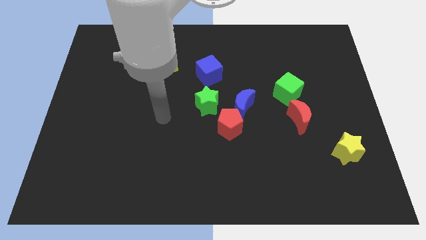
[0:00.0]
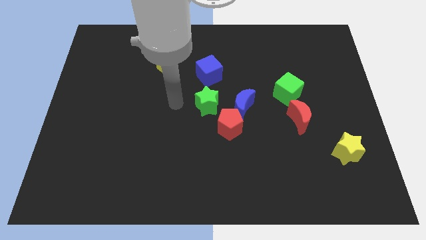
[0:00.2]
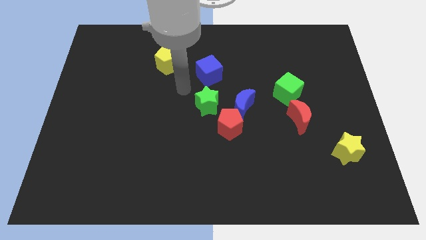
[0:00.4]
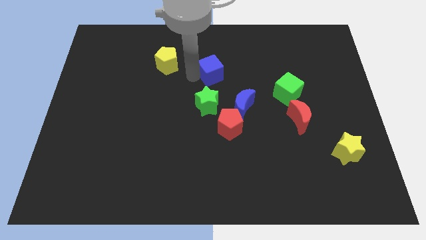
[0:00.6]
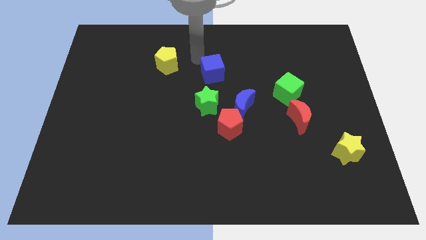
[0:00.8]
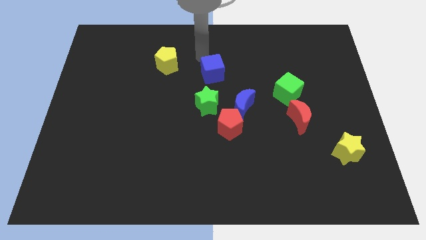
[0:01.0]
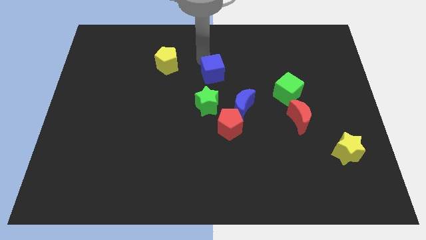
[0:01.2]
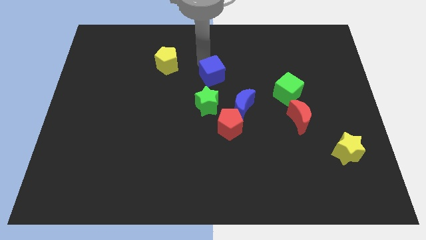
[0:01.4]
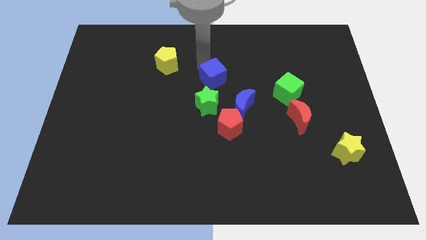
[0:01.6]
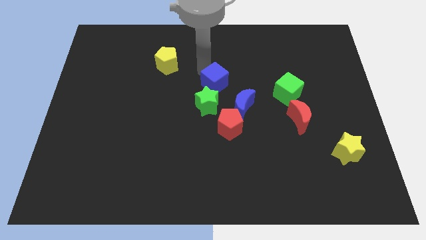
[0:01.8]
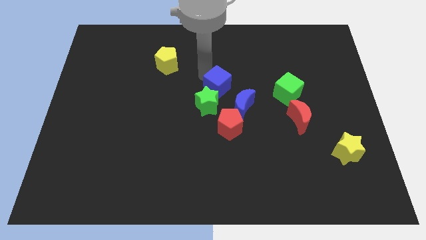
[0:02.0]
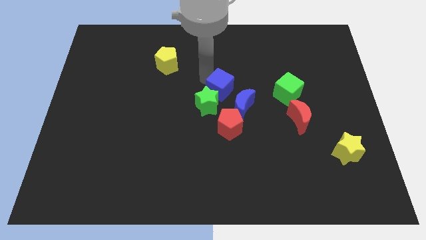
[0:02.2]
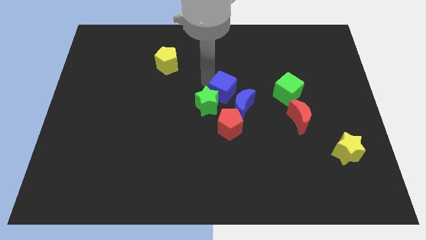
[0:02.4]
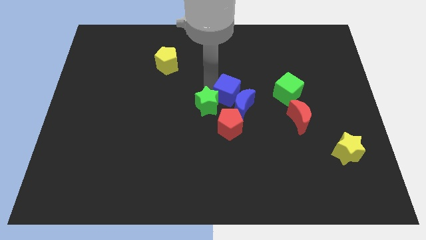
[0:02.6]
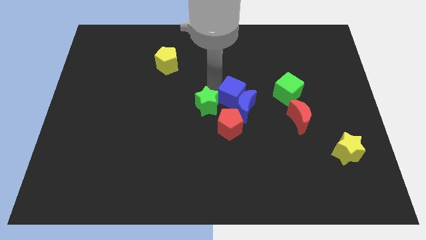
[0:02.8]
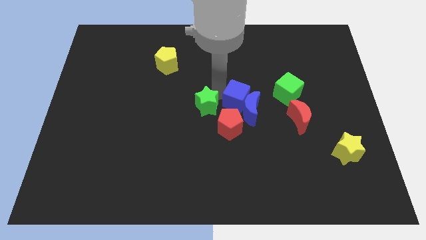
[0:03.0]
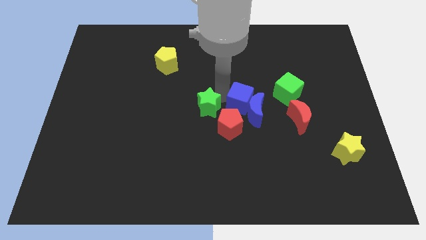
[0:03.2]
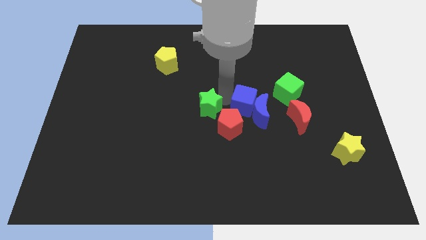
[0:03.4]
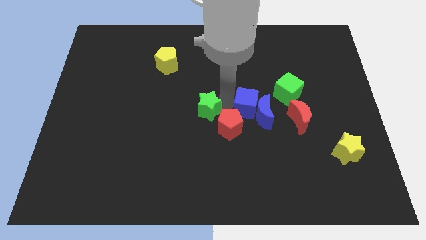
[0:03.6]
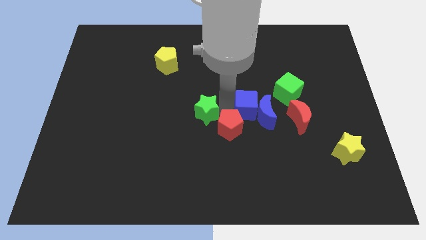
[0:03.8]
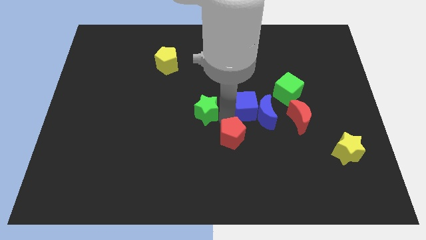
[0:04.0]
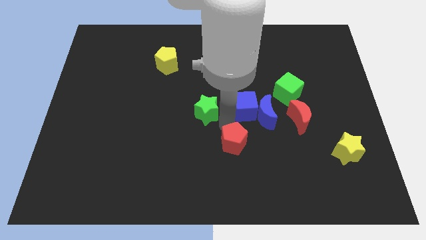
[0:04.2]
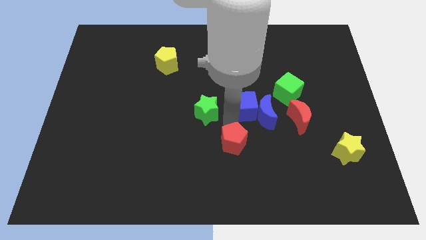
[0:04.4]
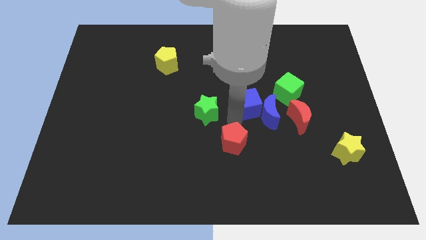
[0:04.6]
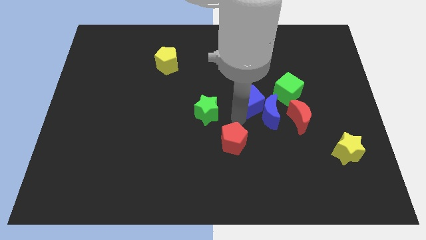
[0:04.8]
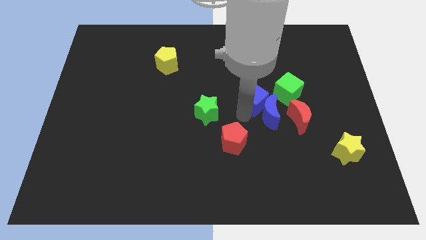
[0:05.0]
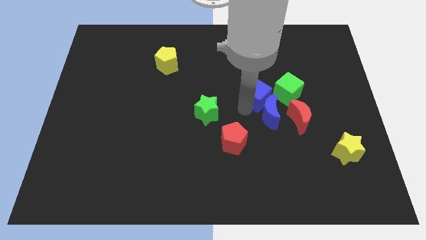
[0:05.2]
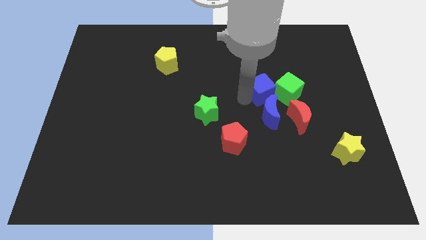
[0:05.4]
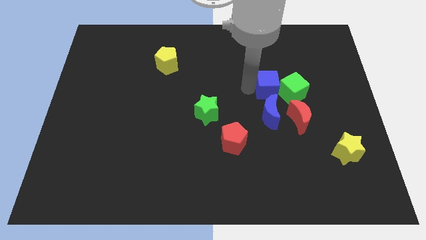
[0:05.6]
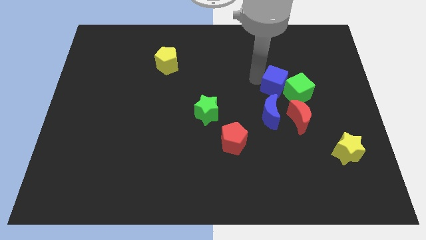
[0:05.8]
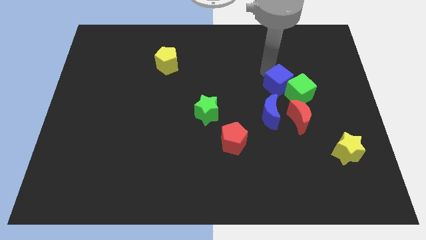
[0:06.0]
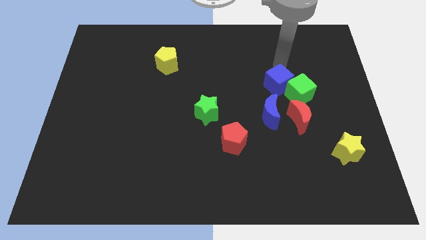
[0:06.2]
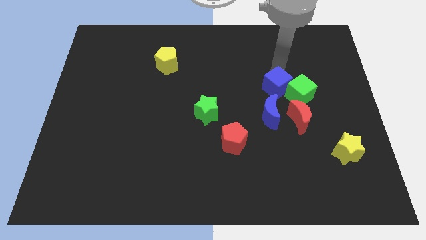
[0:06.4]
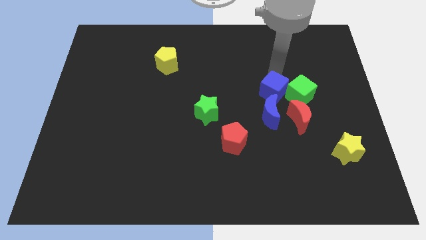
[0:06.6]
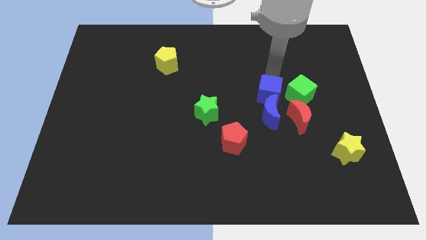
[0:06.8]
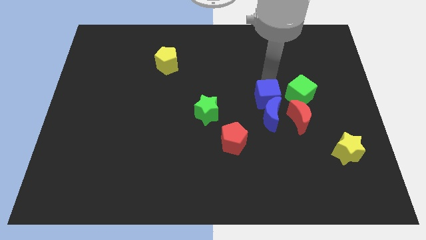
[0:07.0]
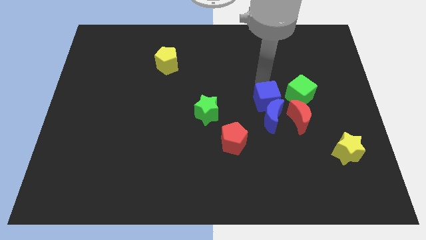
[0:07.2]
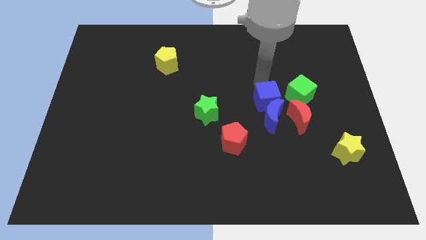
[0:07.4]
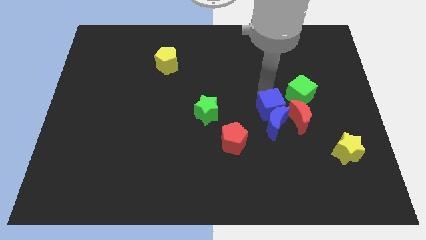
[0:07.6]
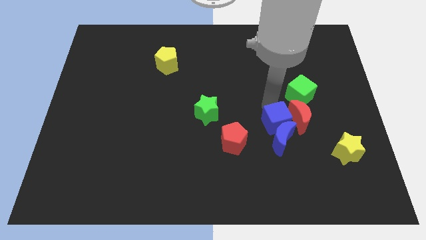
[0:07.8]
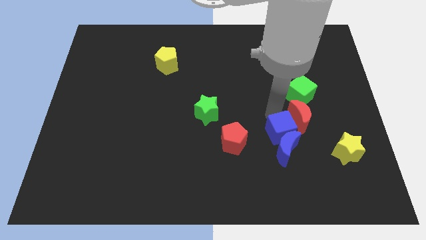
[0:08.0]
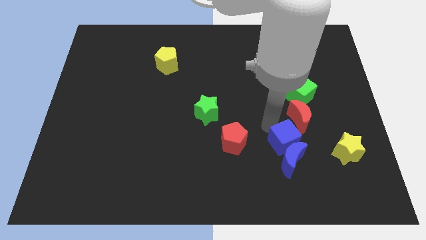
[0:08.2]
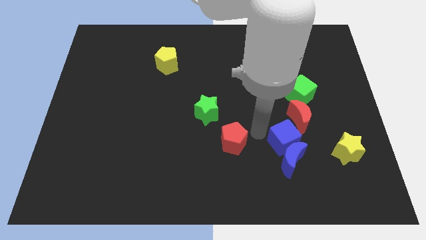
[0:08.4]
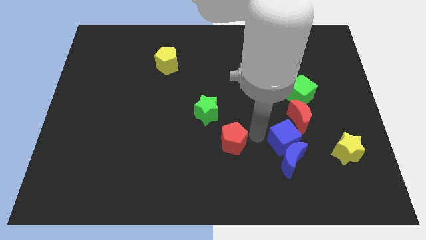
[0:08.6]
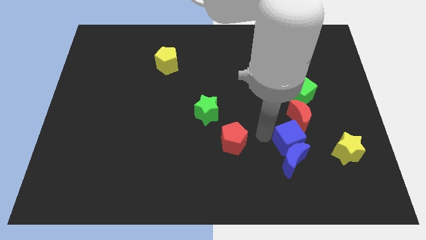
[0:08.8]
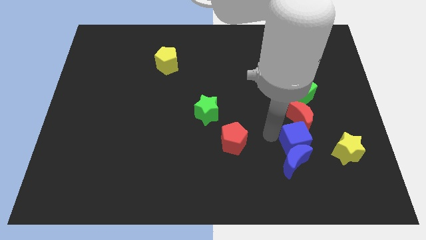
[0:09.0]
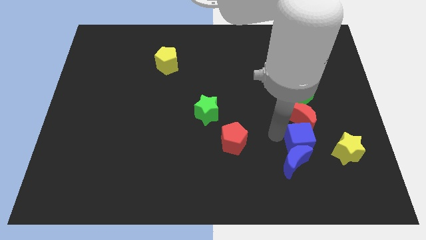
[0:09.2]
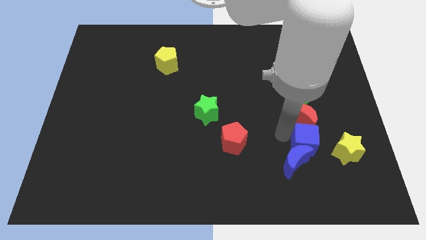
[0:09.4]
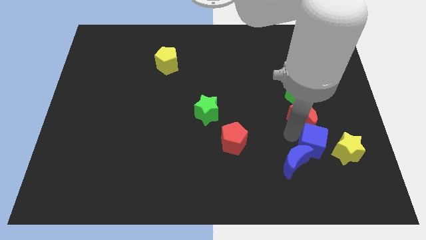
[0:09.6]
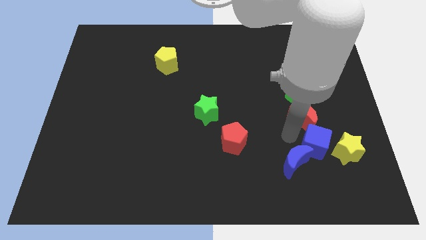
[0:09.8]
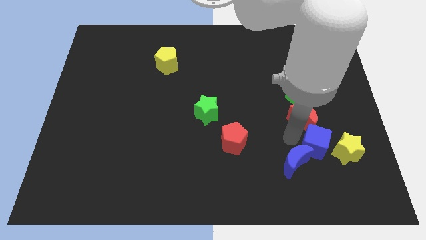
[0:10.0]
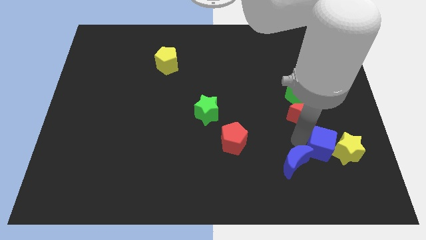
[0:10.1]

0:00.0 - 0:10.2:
move the blue cube next to the yellow star

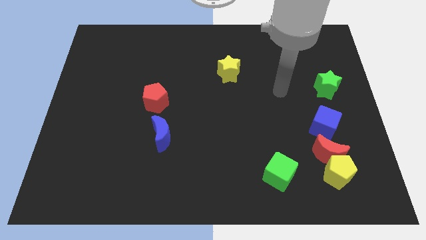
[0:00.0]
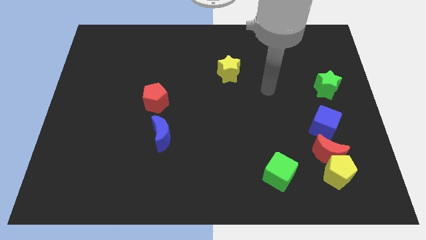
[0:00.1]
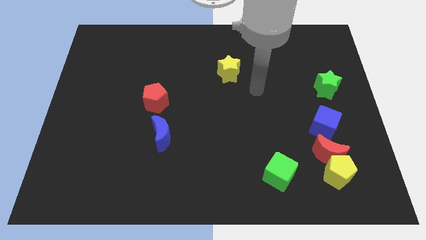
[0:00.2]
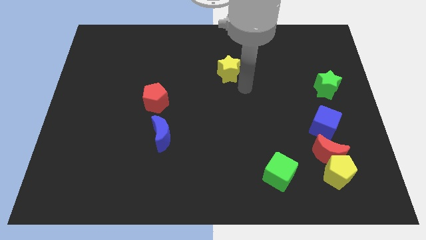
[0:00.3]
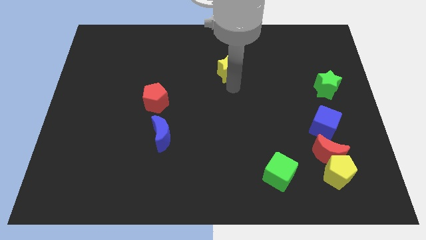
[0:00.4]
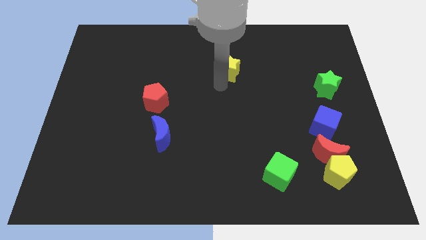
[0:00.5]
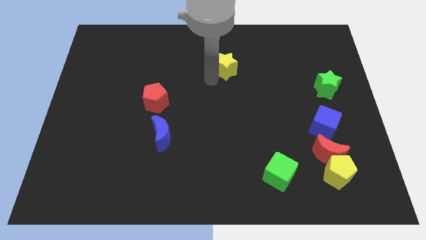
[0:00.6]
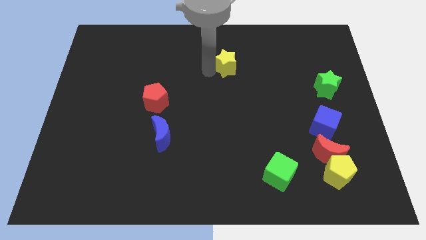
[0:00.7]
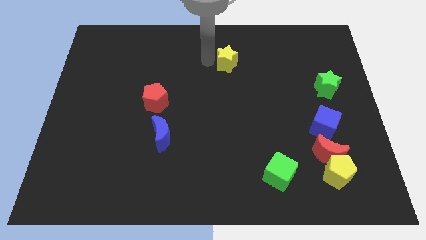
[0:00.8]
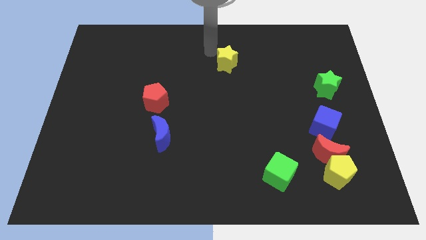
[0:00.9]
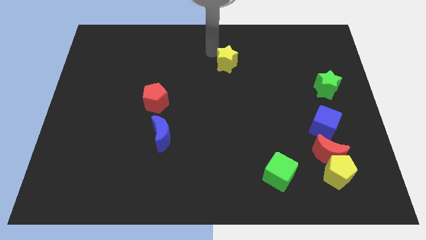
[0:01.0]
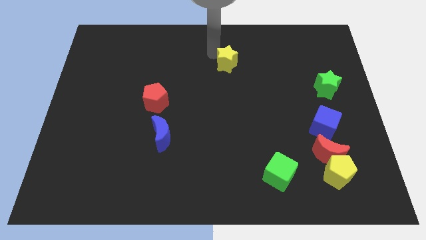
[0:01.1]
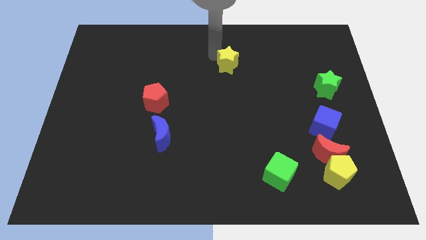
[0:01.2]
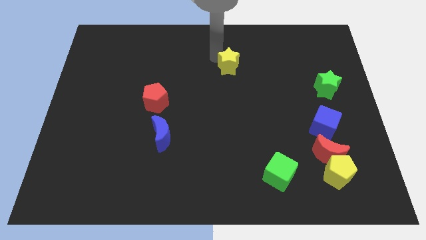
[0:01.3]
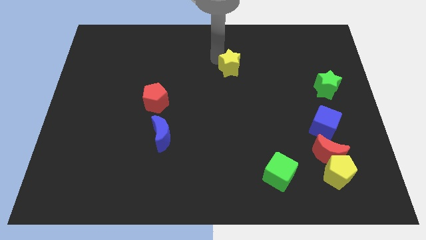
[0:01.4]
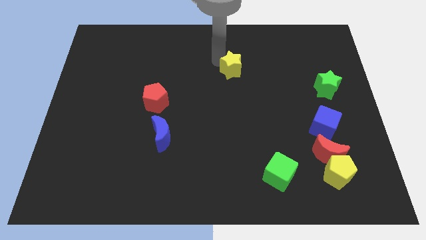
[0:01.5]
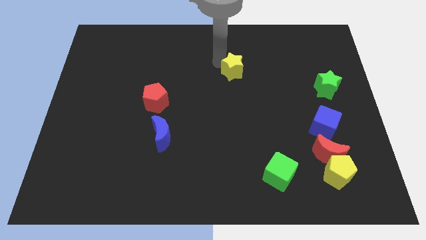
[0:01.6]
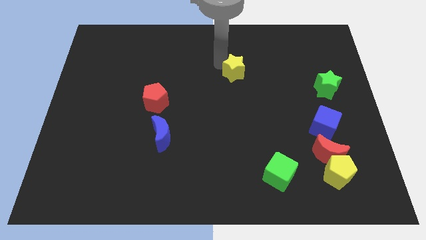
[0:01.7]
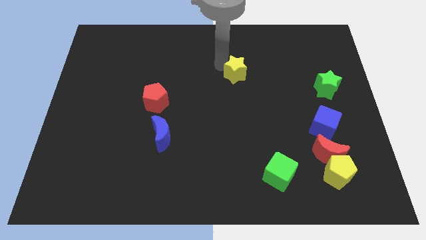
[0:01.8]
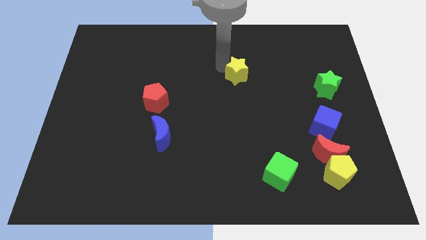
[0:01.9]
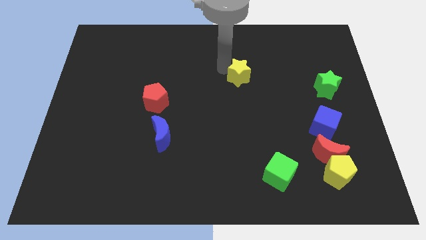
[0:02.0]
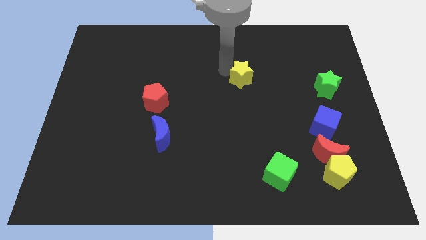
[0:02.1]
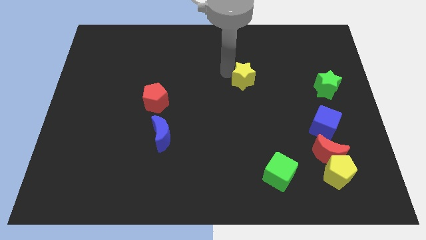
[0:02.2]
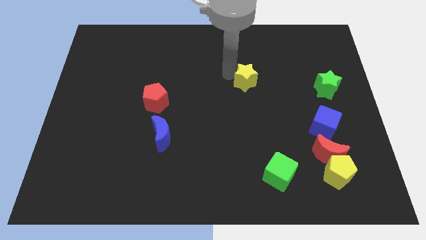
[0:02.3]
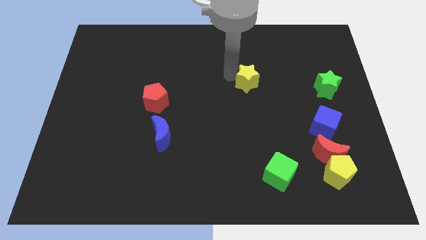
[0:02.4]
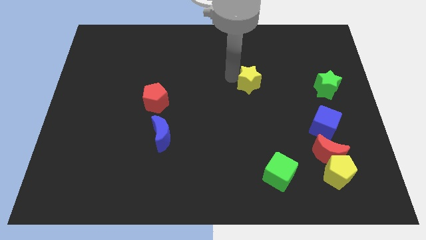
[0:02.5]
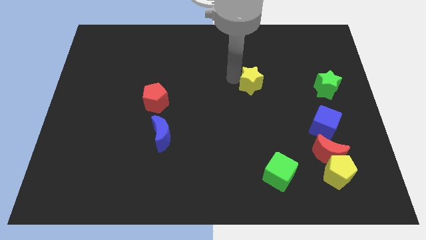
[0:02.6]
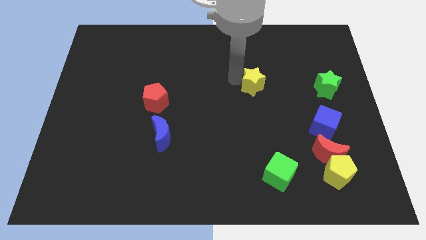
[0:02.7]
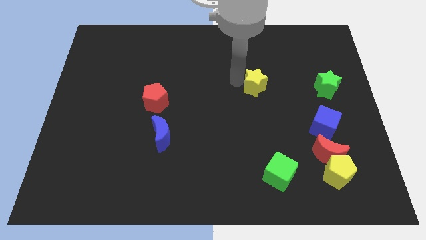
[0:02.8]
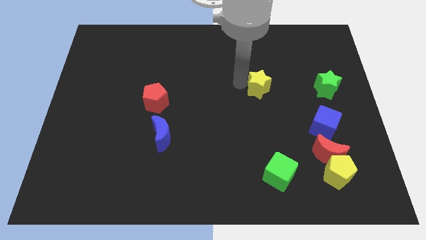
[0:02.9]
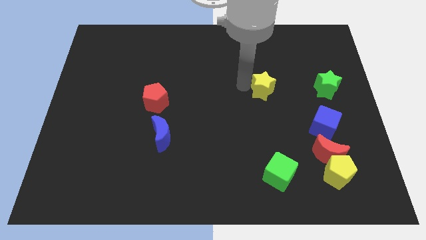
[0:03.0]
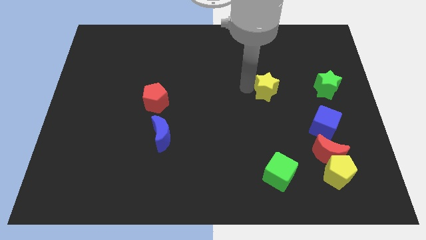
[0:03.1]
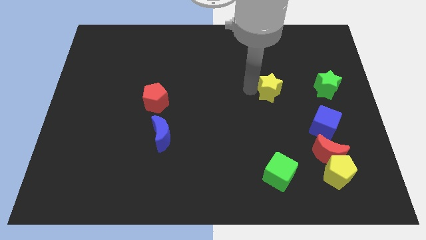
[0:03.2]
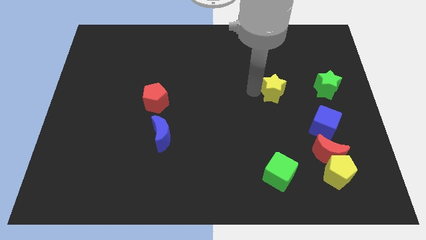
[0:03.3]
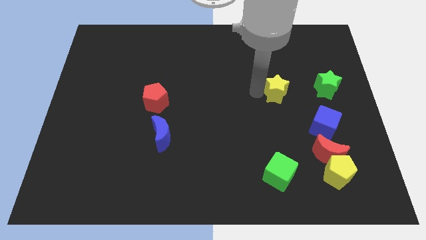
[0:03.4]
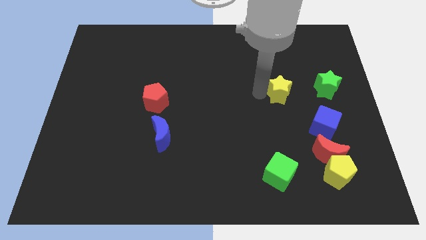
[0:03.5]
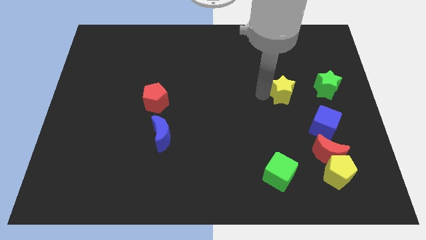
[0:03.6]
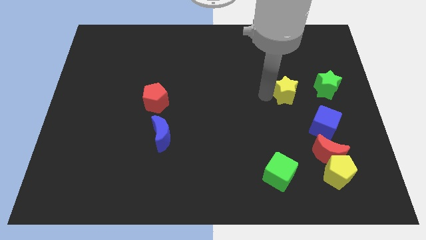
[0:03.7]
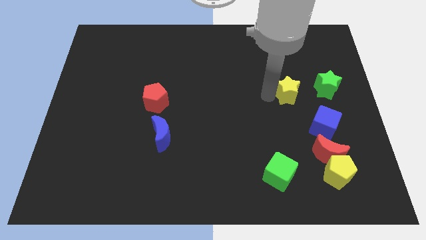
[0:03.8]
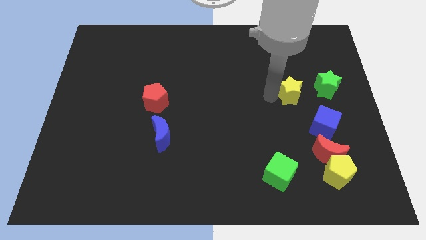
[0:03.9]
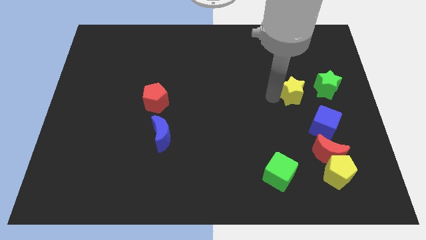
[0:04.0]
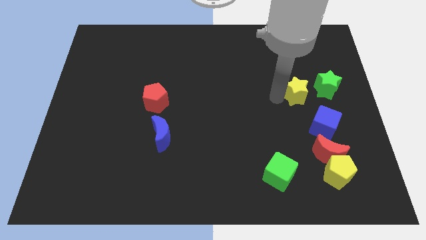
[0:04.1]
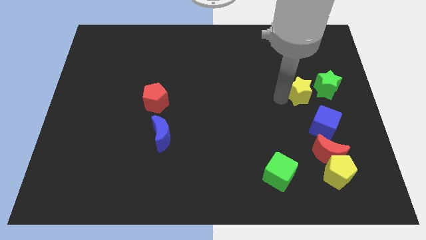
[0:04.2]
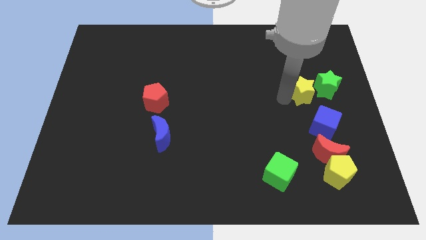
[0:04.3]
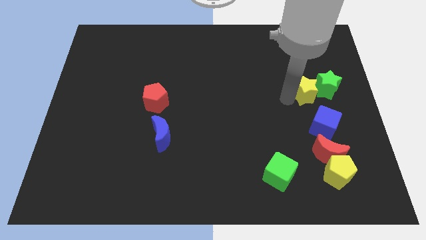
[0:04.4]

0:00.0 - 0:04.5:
push the yellow star close to the green star
